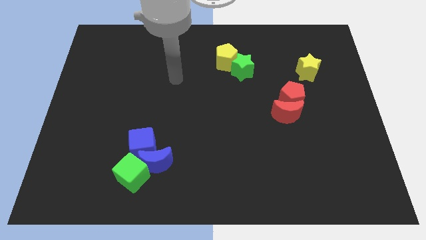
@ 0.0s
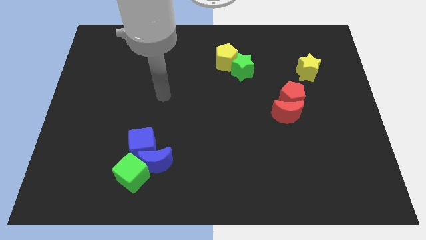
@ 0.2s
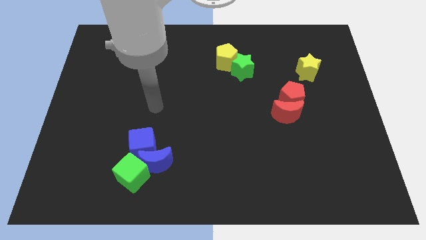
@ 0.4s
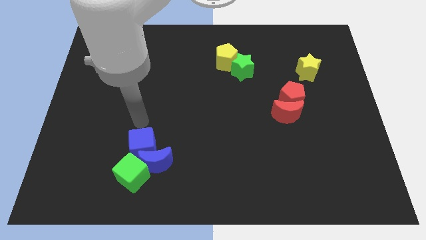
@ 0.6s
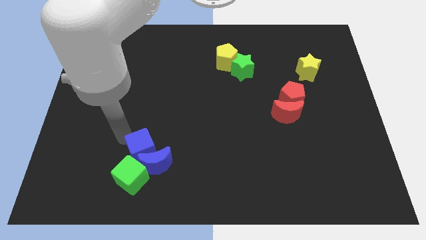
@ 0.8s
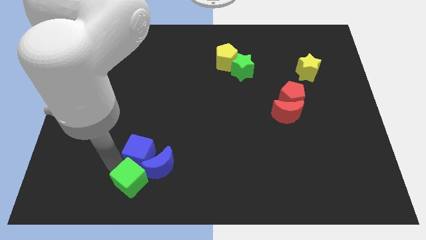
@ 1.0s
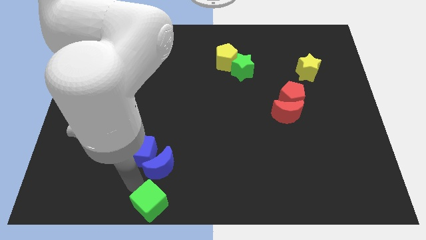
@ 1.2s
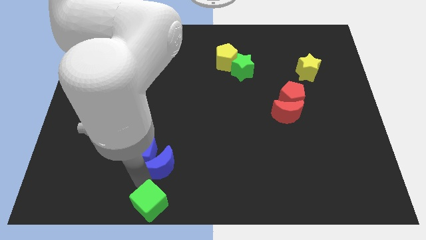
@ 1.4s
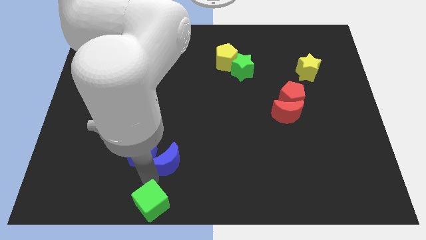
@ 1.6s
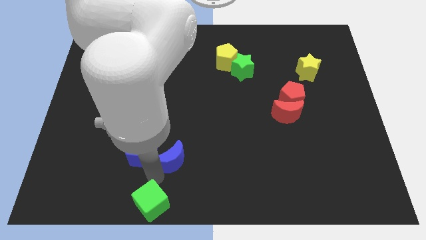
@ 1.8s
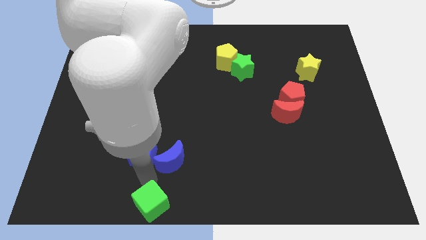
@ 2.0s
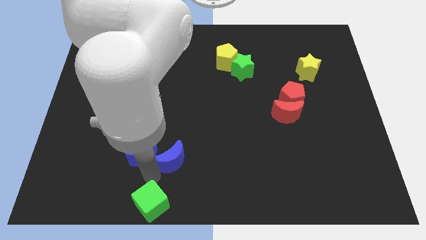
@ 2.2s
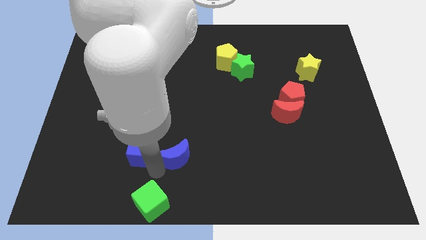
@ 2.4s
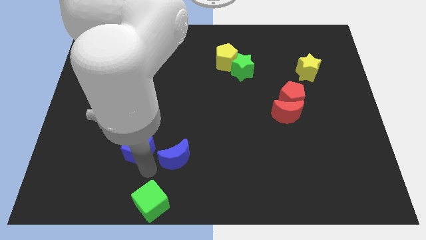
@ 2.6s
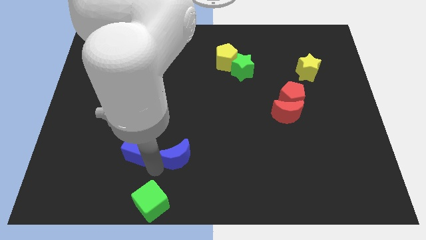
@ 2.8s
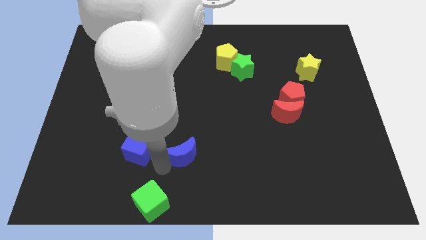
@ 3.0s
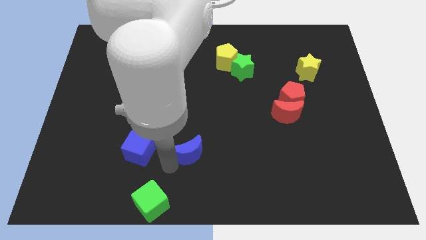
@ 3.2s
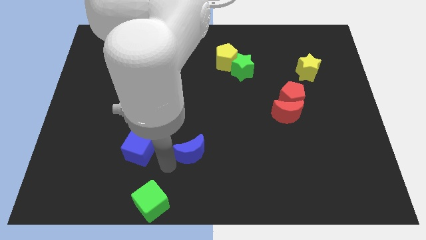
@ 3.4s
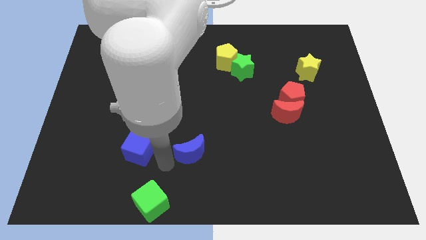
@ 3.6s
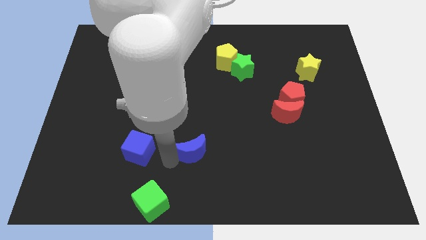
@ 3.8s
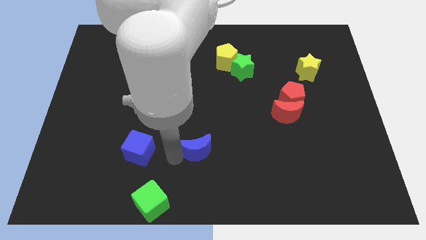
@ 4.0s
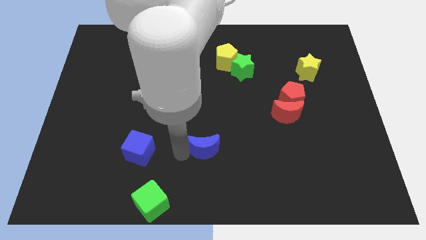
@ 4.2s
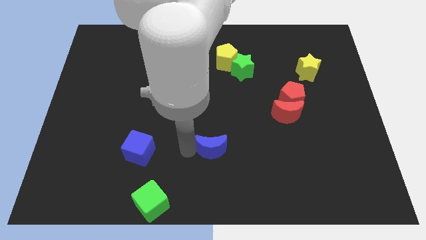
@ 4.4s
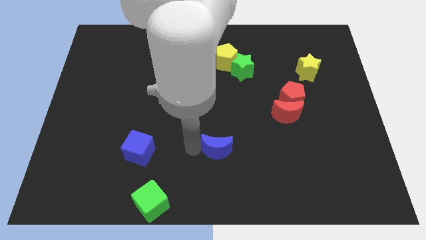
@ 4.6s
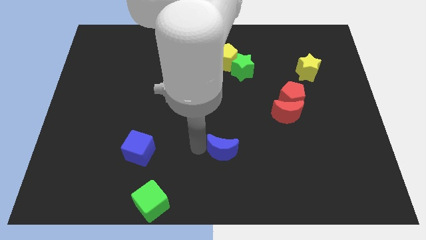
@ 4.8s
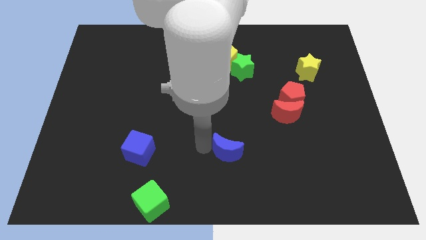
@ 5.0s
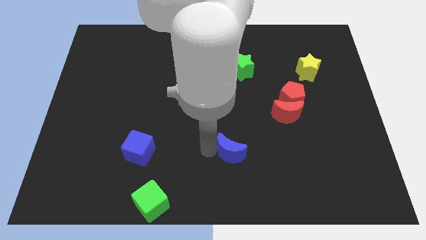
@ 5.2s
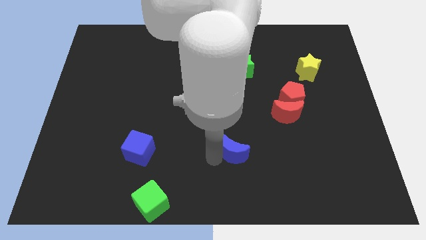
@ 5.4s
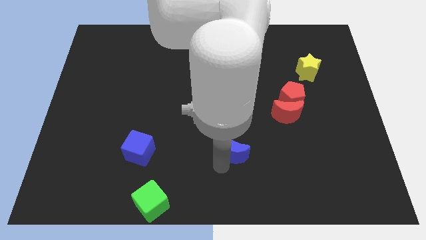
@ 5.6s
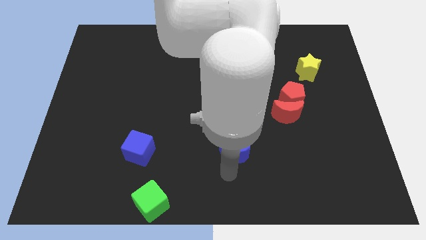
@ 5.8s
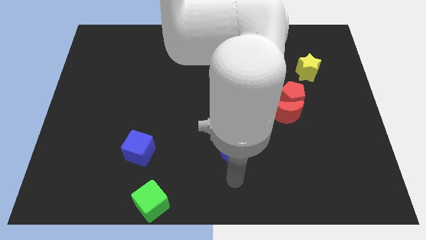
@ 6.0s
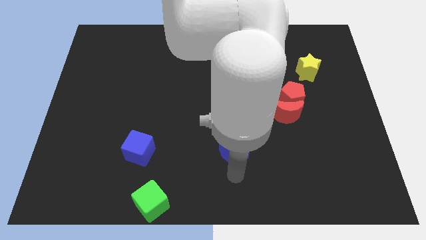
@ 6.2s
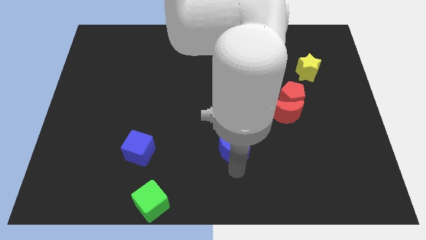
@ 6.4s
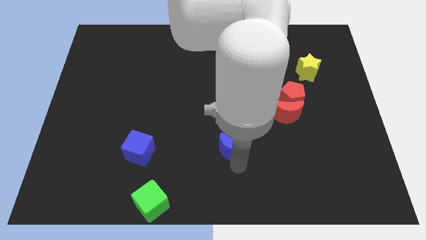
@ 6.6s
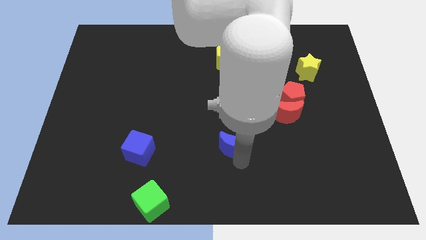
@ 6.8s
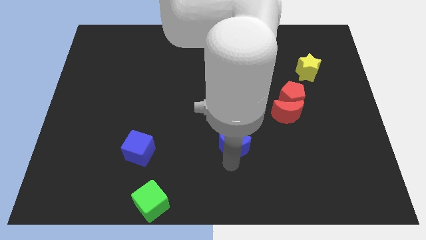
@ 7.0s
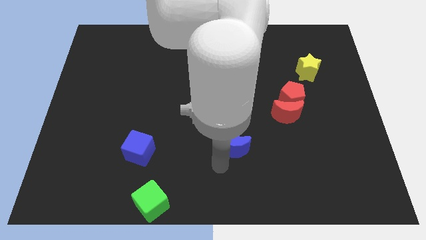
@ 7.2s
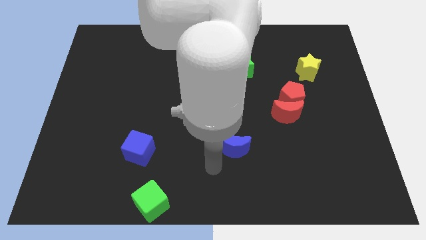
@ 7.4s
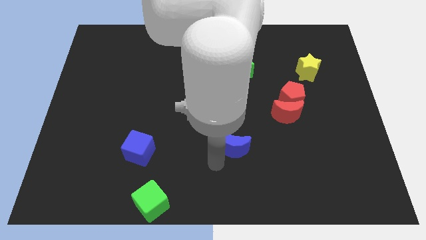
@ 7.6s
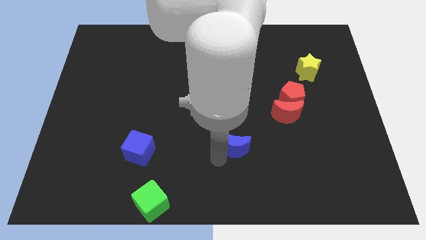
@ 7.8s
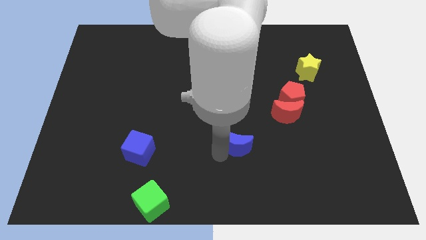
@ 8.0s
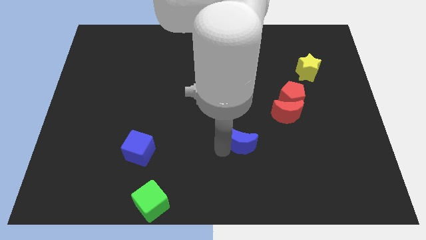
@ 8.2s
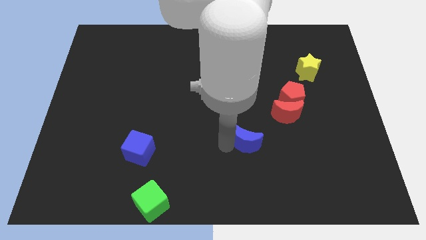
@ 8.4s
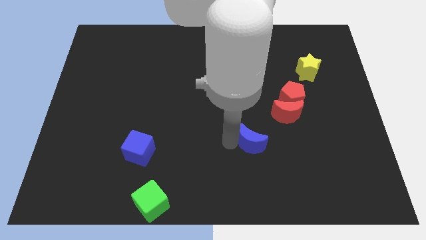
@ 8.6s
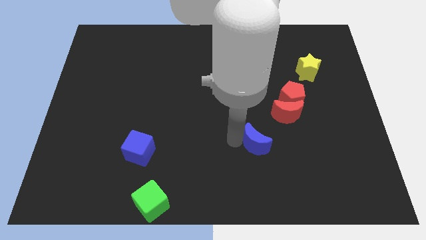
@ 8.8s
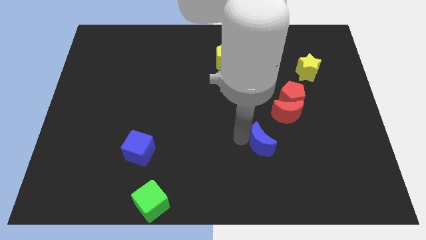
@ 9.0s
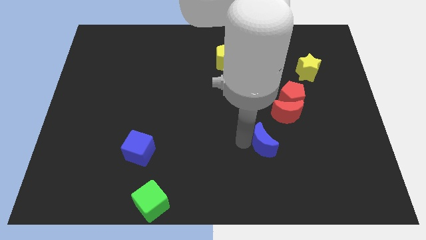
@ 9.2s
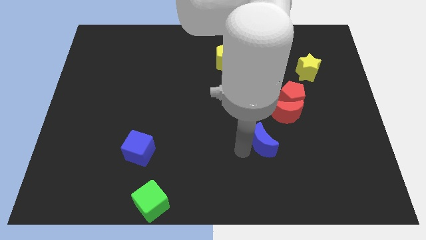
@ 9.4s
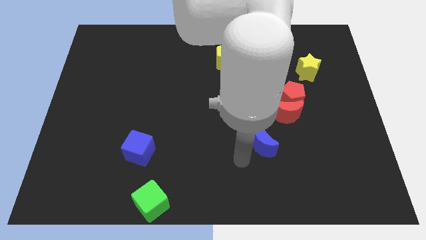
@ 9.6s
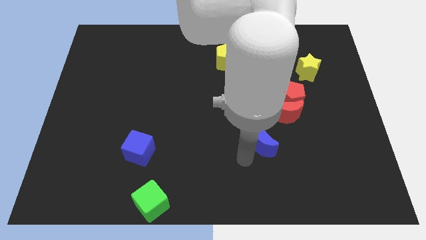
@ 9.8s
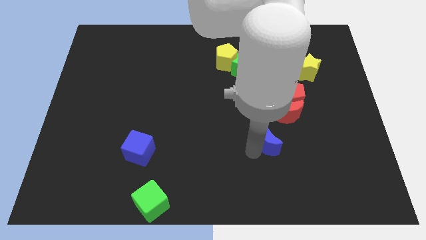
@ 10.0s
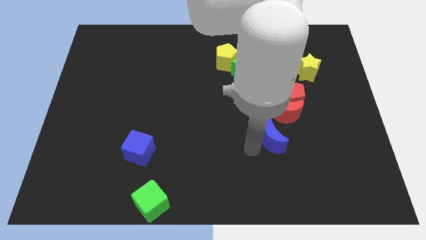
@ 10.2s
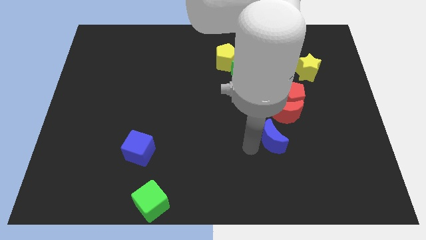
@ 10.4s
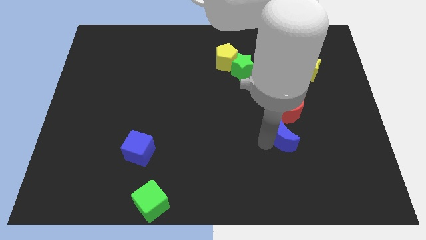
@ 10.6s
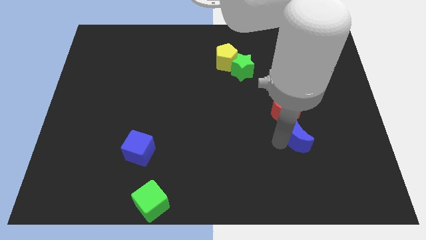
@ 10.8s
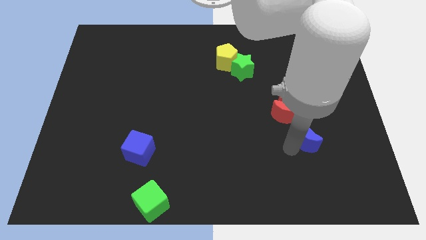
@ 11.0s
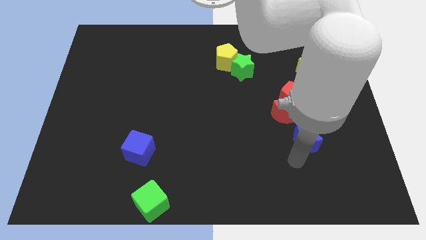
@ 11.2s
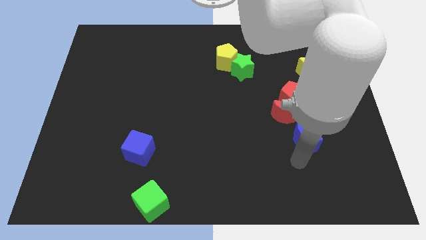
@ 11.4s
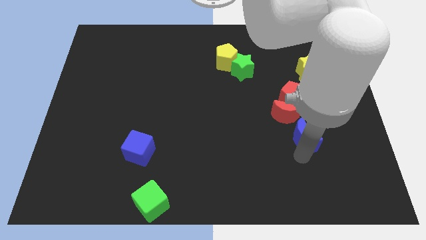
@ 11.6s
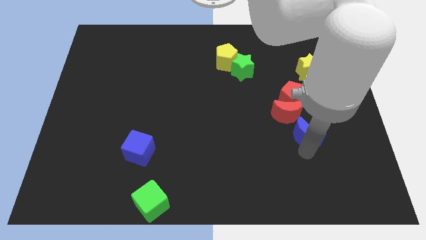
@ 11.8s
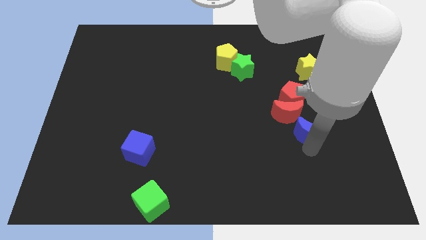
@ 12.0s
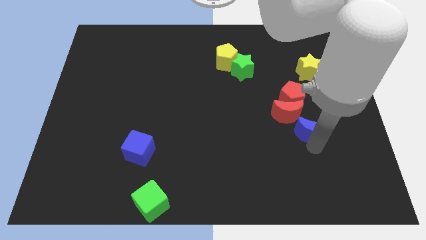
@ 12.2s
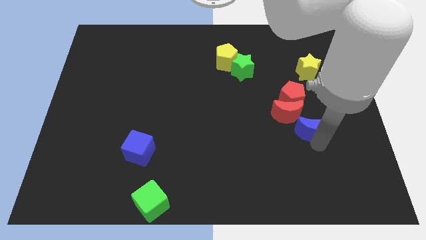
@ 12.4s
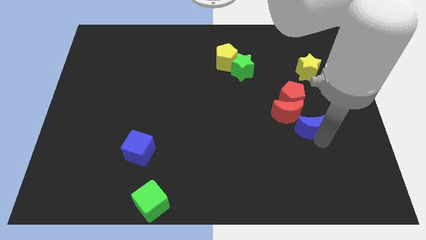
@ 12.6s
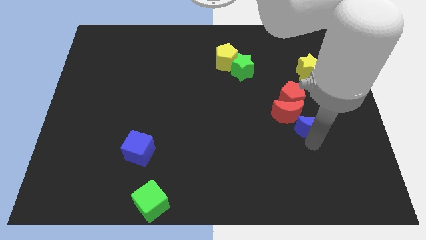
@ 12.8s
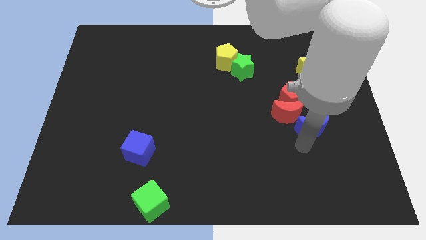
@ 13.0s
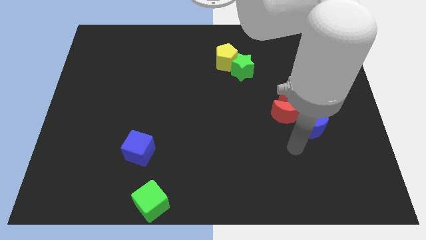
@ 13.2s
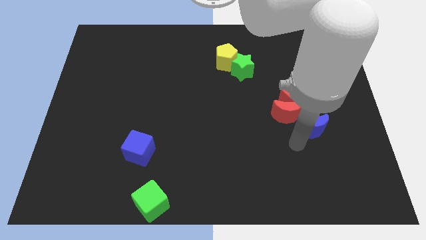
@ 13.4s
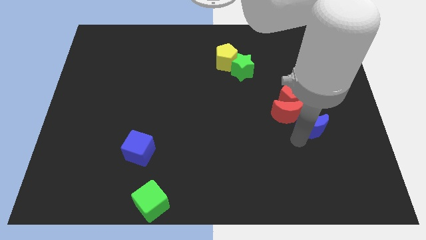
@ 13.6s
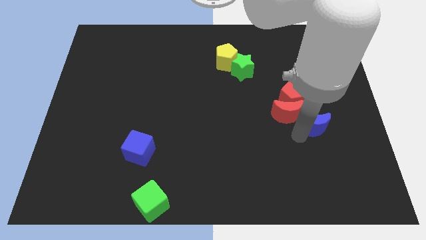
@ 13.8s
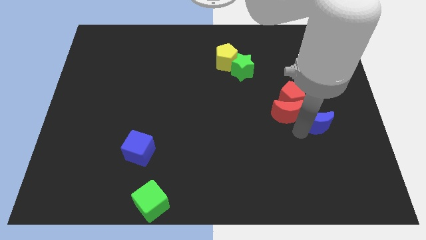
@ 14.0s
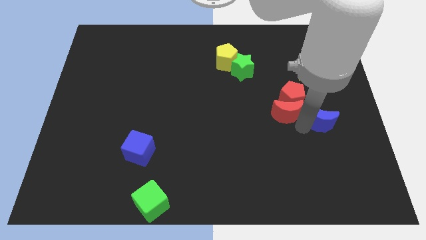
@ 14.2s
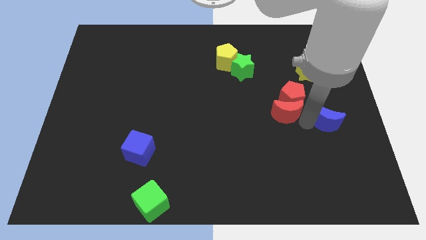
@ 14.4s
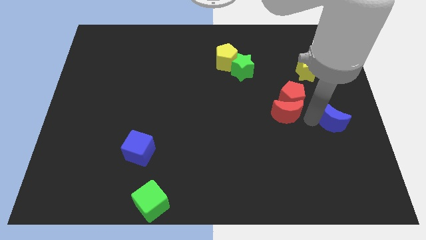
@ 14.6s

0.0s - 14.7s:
push the blue moon to the center right
